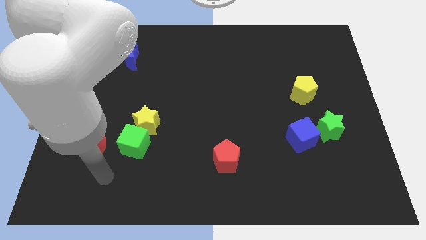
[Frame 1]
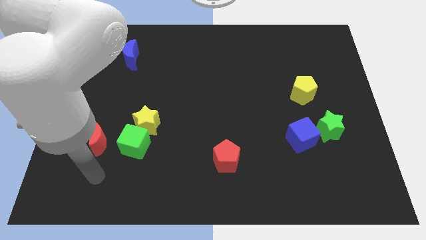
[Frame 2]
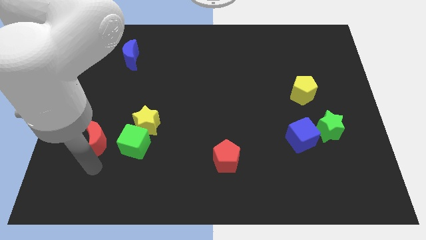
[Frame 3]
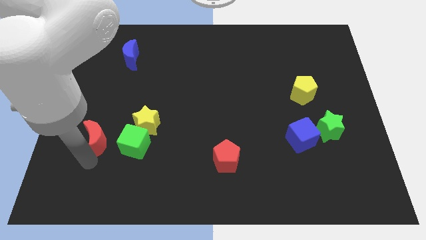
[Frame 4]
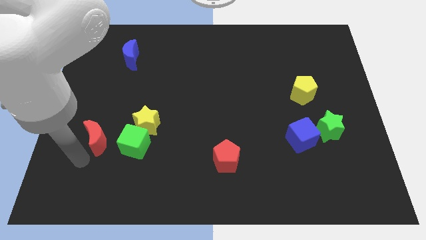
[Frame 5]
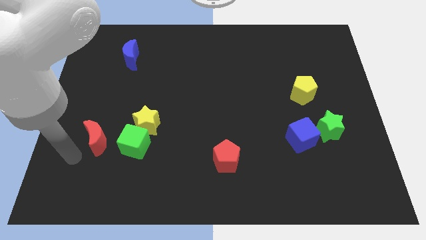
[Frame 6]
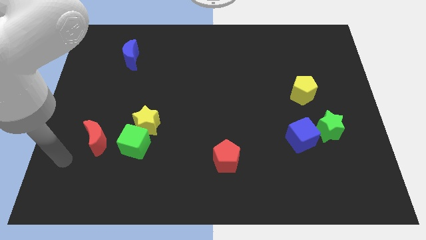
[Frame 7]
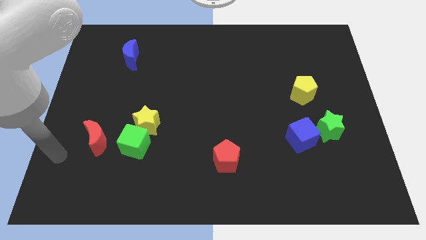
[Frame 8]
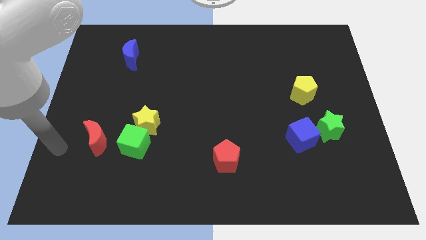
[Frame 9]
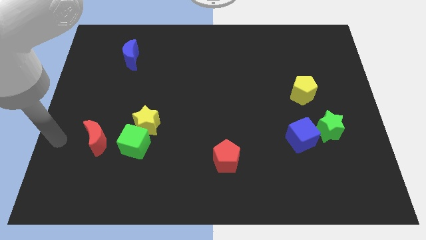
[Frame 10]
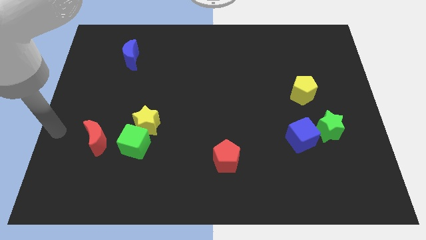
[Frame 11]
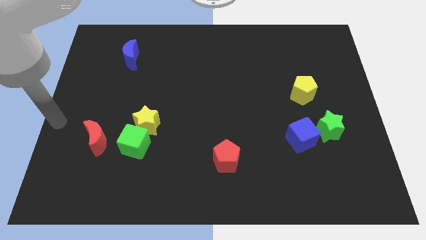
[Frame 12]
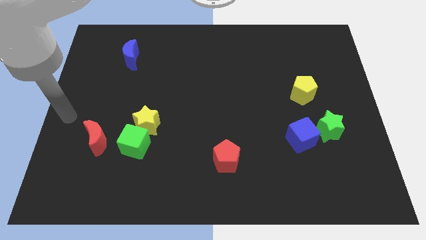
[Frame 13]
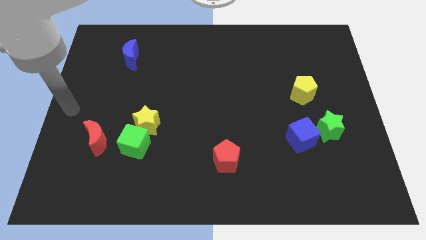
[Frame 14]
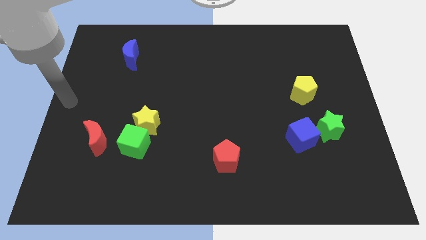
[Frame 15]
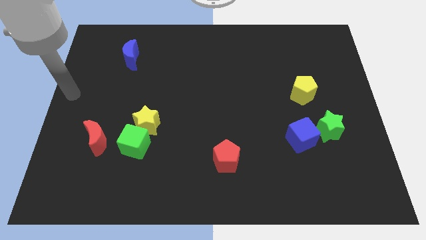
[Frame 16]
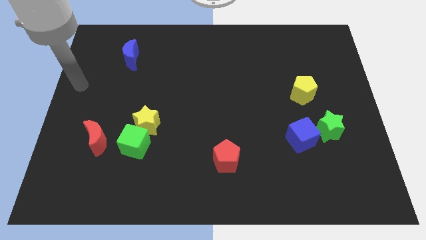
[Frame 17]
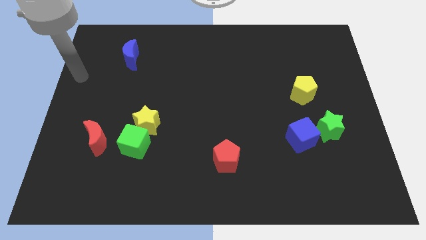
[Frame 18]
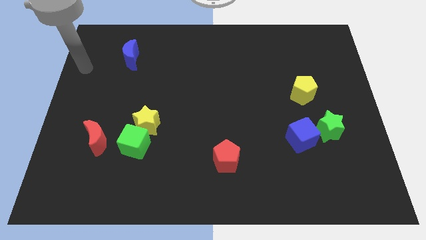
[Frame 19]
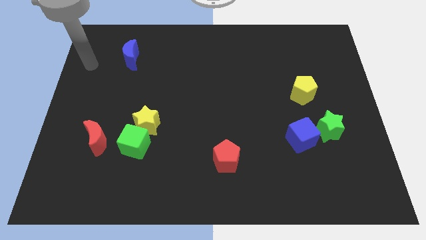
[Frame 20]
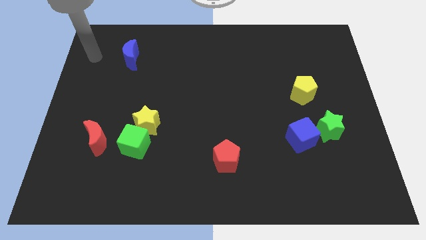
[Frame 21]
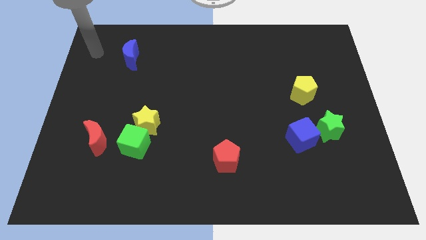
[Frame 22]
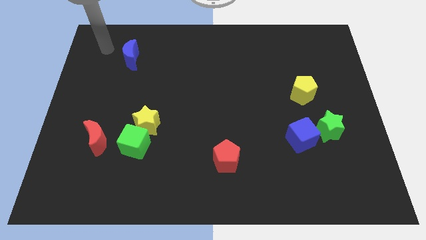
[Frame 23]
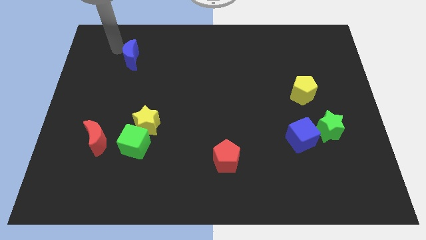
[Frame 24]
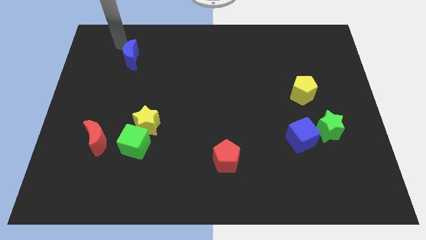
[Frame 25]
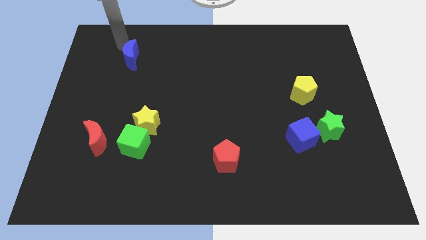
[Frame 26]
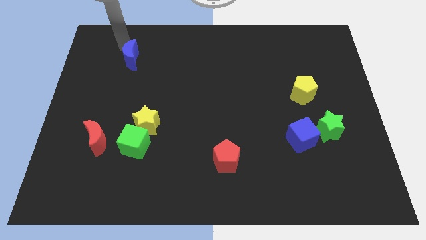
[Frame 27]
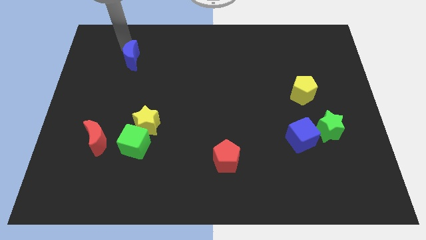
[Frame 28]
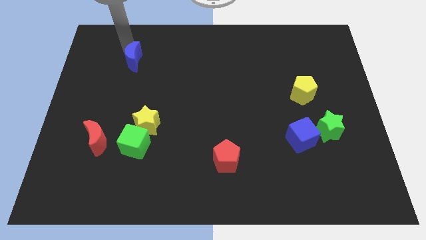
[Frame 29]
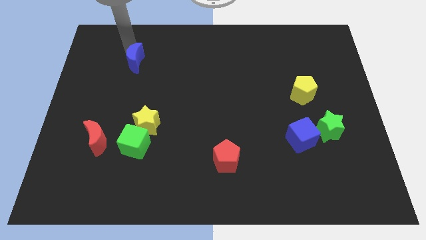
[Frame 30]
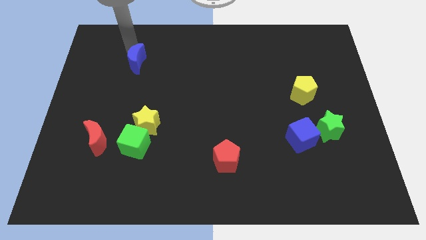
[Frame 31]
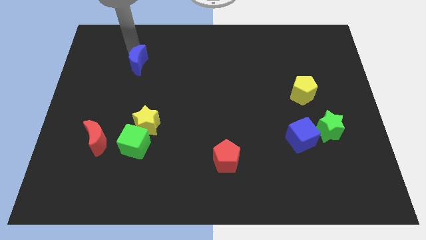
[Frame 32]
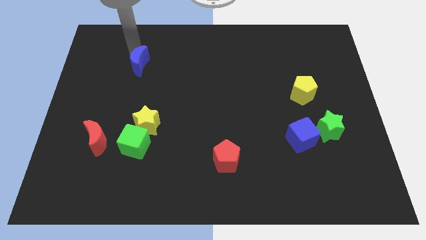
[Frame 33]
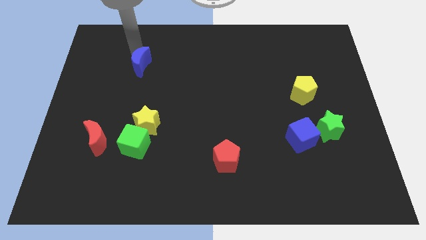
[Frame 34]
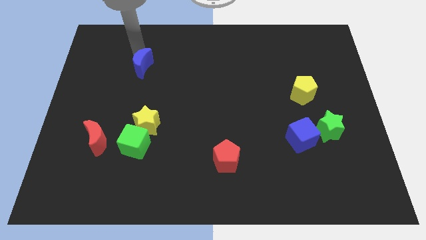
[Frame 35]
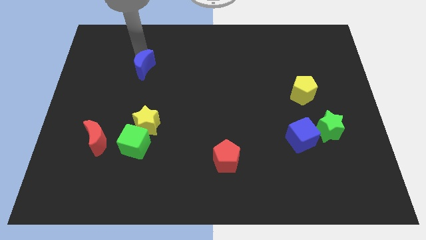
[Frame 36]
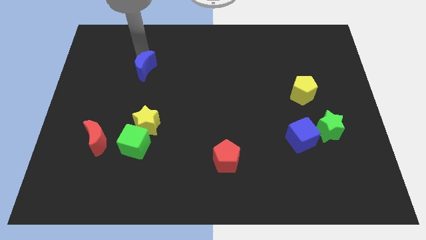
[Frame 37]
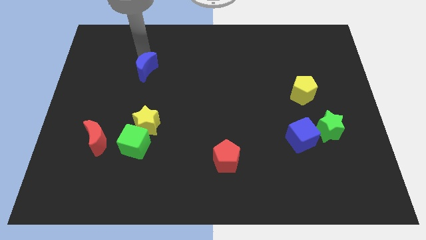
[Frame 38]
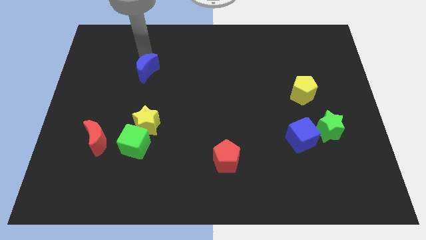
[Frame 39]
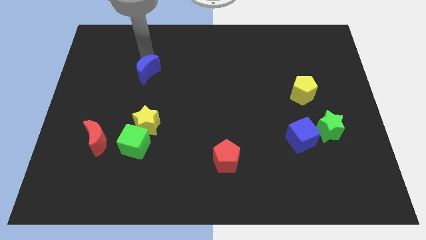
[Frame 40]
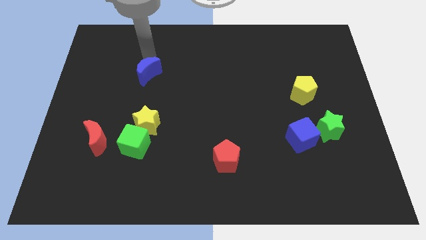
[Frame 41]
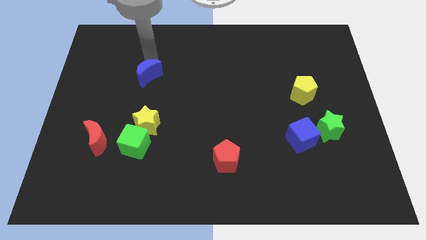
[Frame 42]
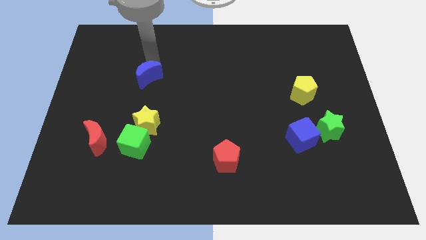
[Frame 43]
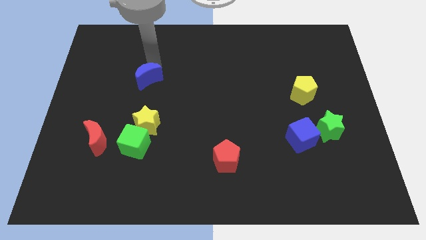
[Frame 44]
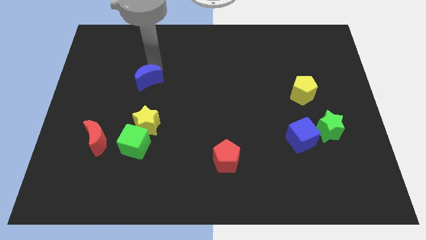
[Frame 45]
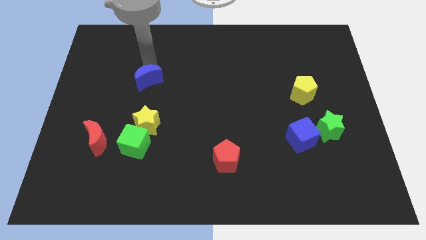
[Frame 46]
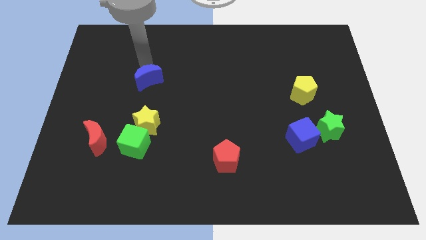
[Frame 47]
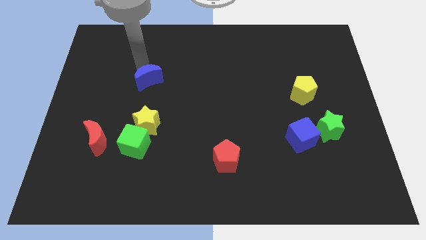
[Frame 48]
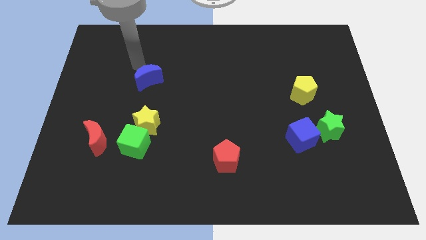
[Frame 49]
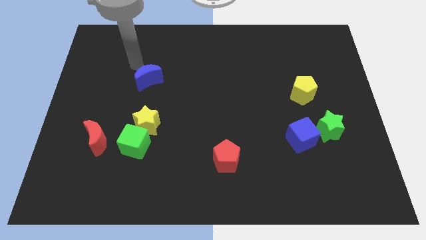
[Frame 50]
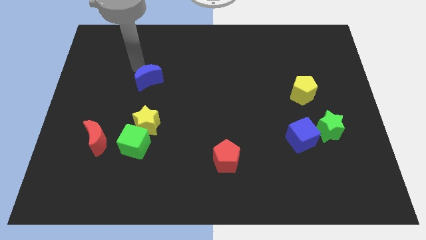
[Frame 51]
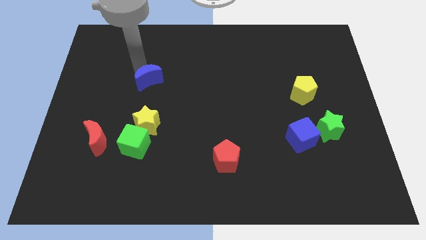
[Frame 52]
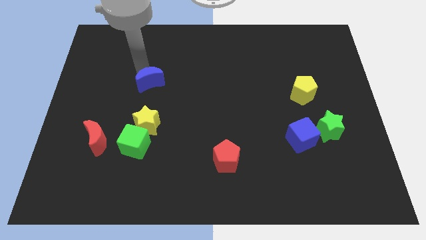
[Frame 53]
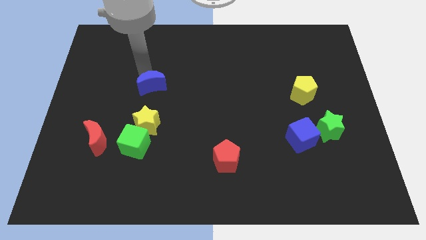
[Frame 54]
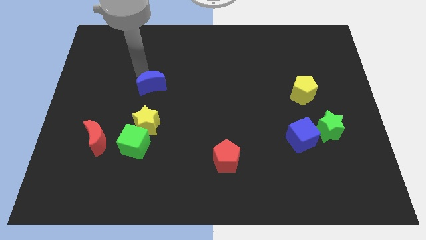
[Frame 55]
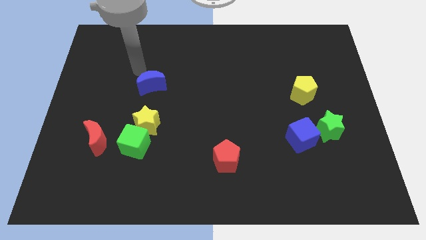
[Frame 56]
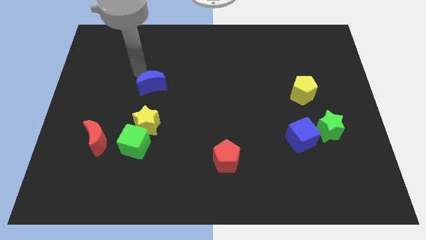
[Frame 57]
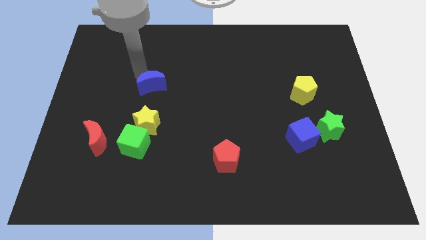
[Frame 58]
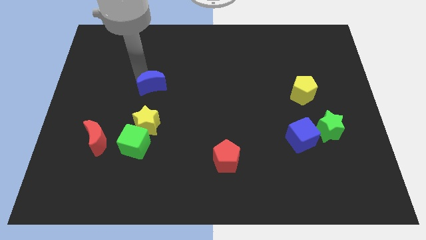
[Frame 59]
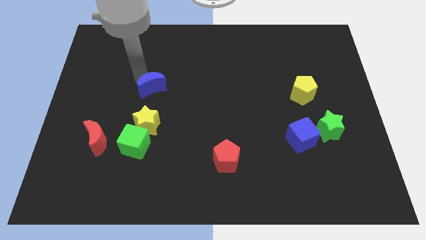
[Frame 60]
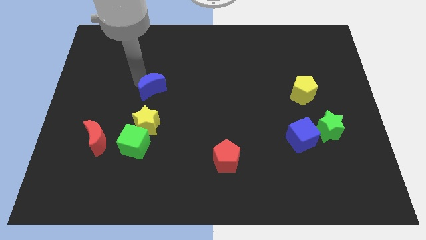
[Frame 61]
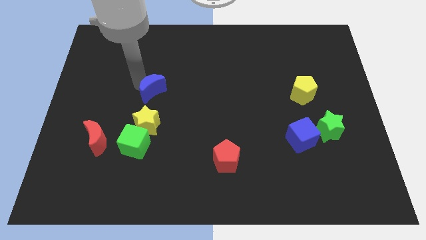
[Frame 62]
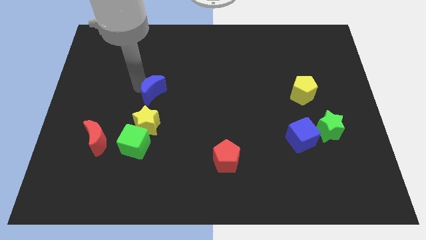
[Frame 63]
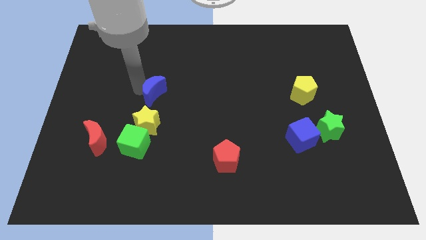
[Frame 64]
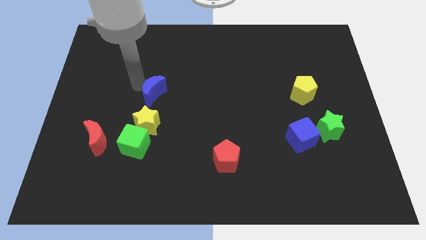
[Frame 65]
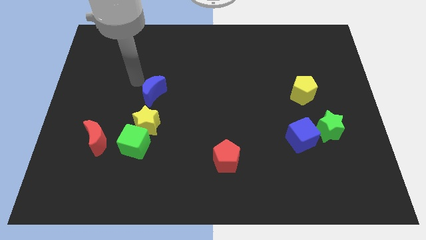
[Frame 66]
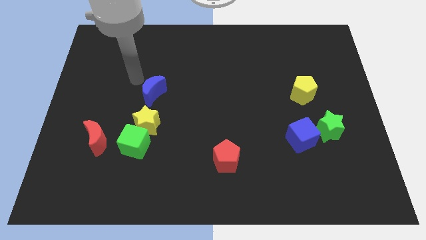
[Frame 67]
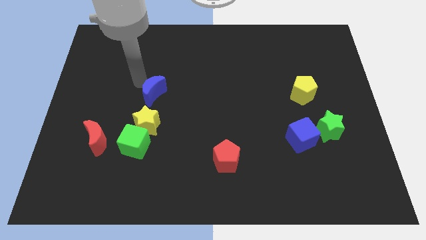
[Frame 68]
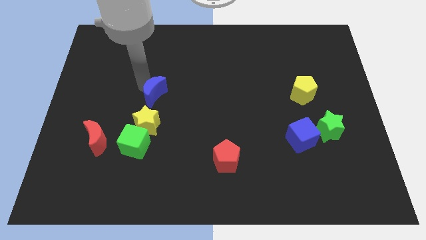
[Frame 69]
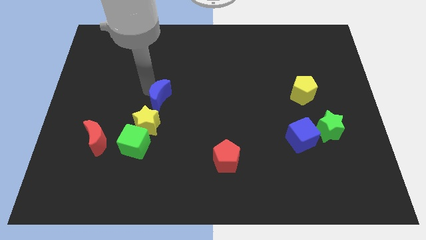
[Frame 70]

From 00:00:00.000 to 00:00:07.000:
move the blue moon to the top right of the yellow star

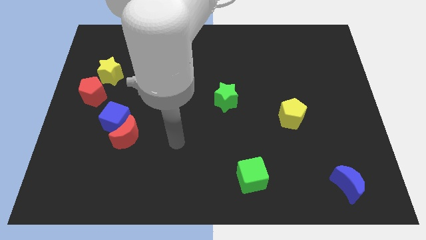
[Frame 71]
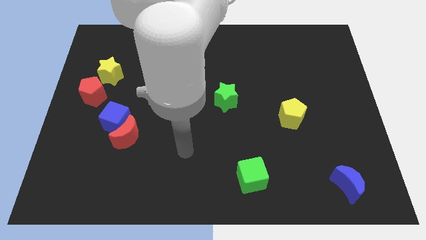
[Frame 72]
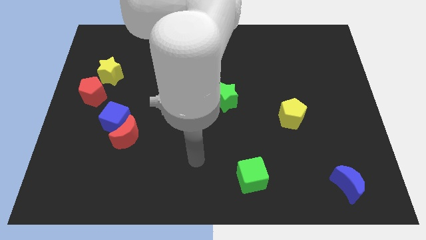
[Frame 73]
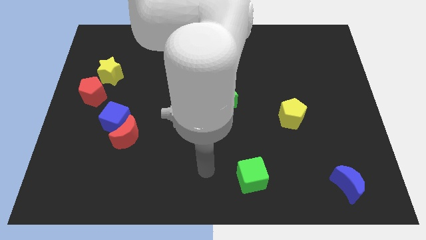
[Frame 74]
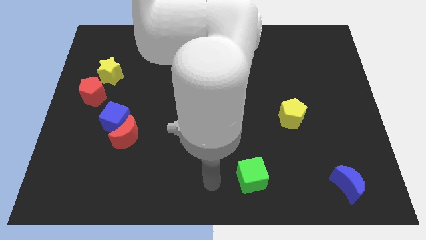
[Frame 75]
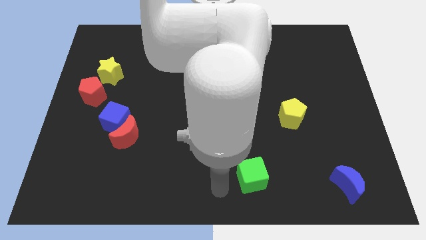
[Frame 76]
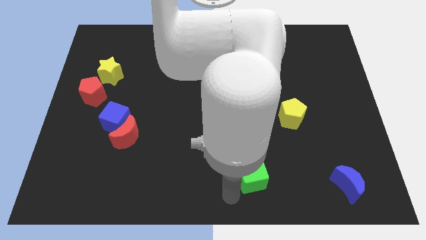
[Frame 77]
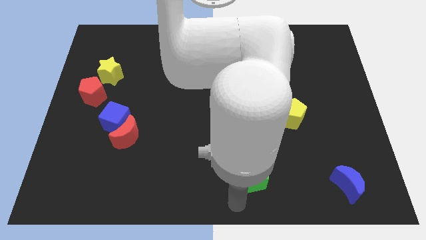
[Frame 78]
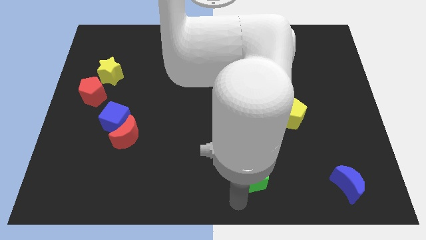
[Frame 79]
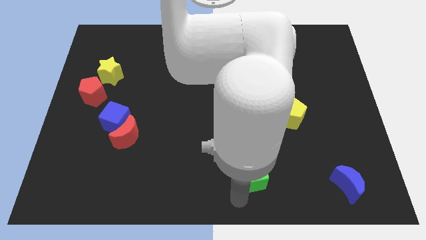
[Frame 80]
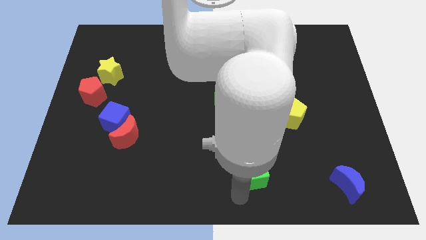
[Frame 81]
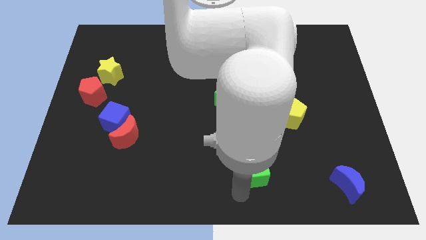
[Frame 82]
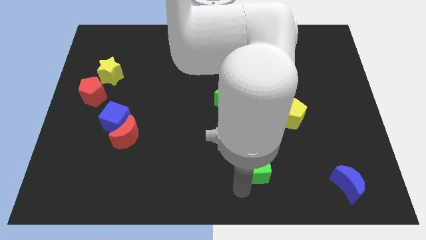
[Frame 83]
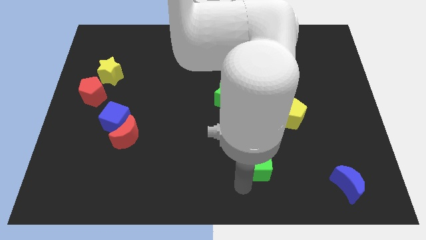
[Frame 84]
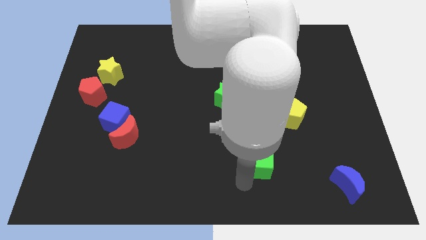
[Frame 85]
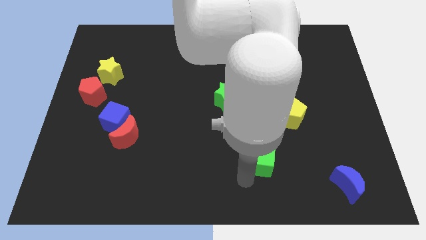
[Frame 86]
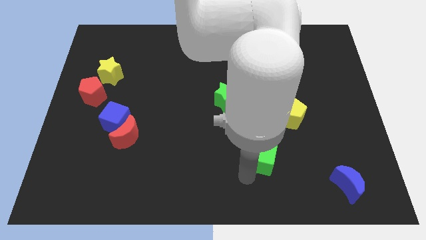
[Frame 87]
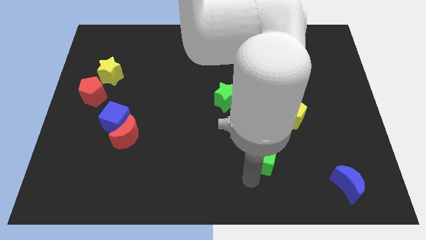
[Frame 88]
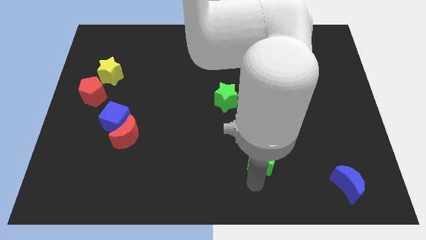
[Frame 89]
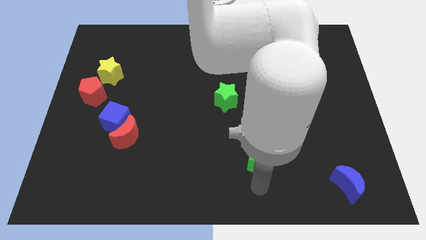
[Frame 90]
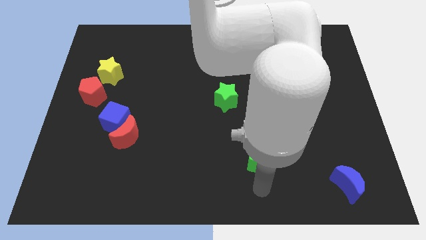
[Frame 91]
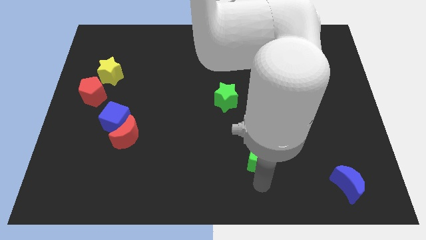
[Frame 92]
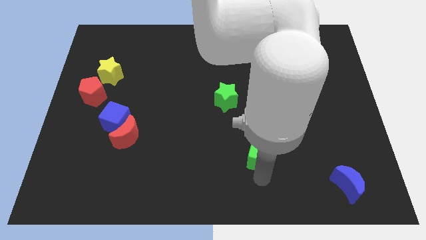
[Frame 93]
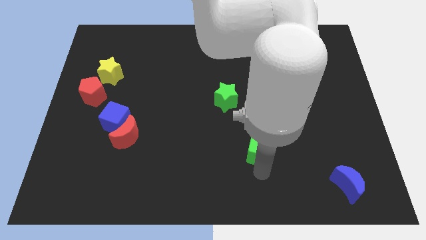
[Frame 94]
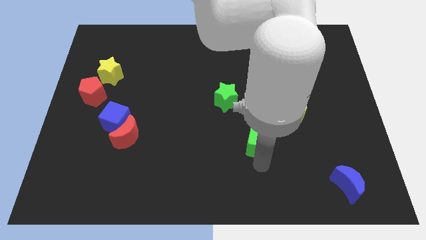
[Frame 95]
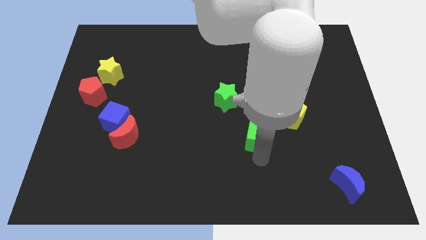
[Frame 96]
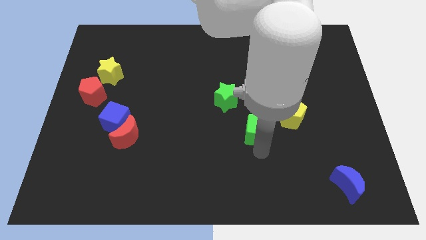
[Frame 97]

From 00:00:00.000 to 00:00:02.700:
push the green cube to the bottom right of the green star
